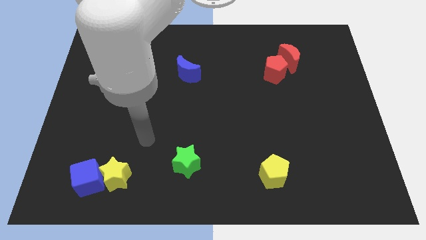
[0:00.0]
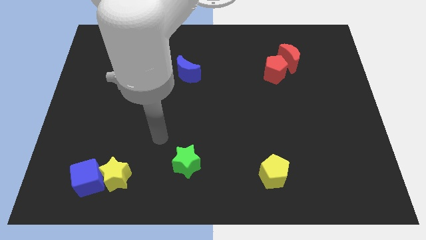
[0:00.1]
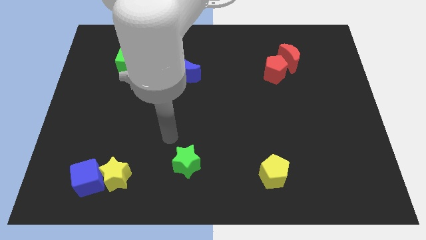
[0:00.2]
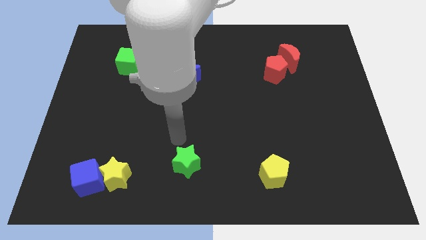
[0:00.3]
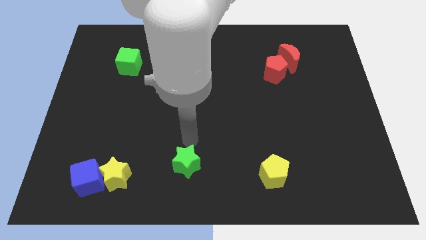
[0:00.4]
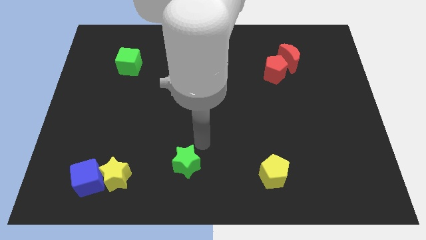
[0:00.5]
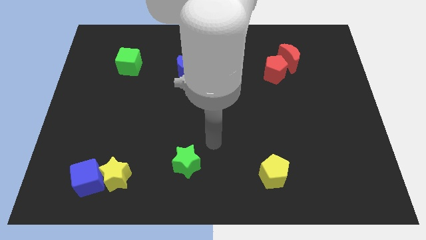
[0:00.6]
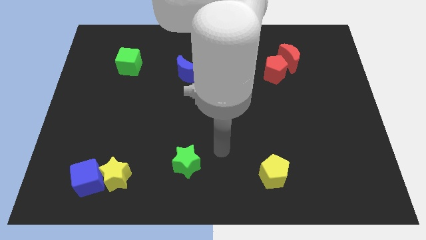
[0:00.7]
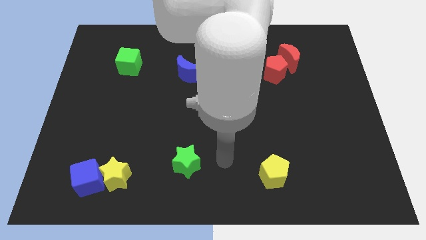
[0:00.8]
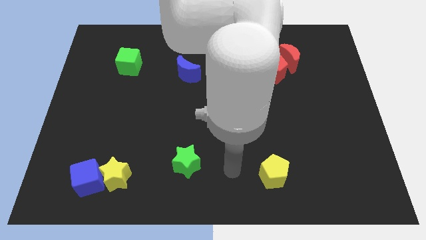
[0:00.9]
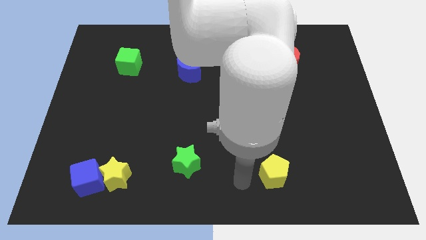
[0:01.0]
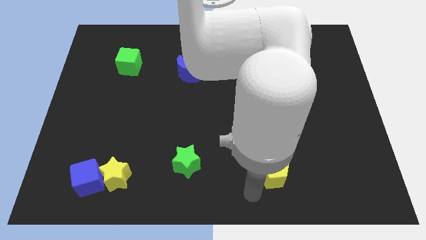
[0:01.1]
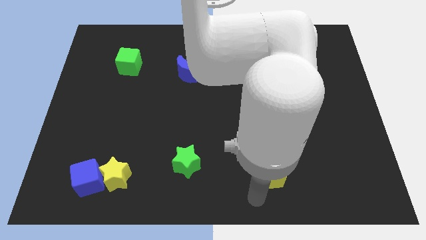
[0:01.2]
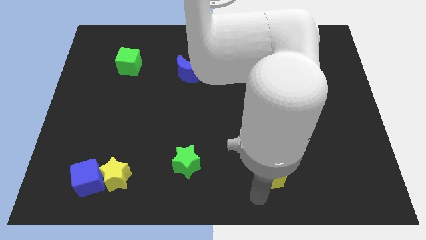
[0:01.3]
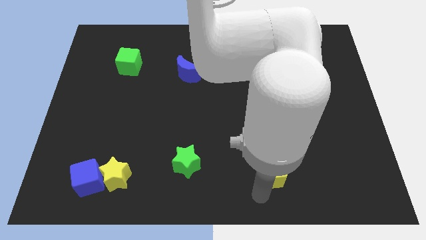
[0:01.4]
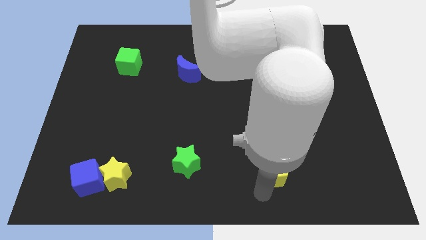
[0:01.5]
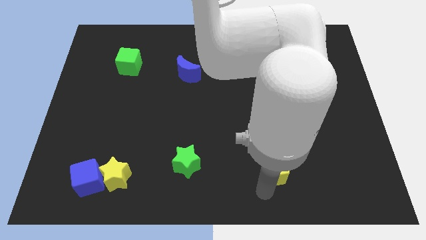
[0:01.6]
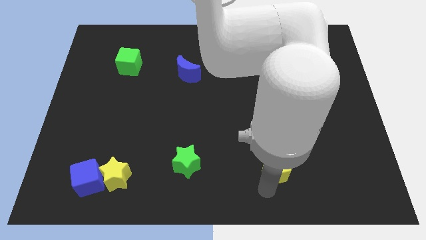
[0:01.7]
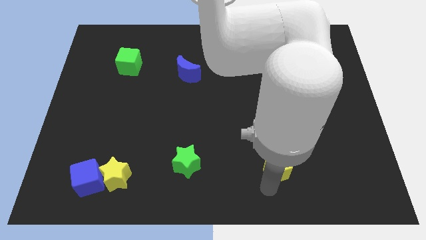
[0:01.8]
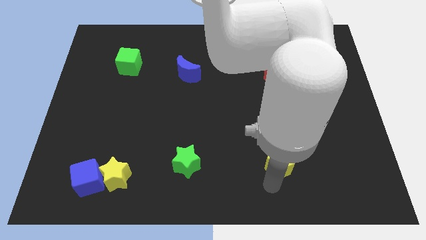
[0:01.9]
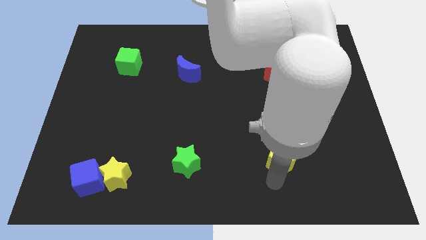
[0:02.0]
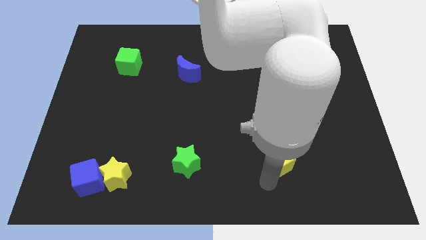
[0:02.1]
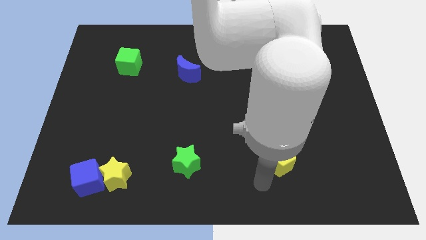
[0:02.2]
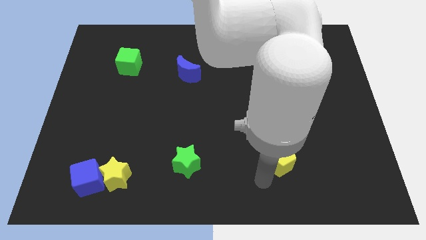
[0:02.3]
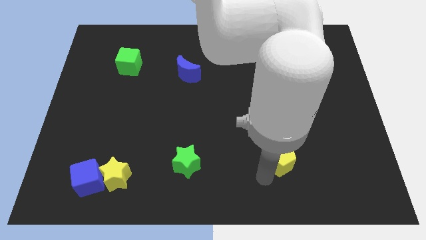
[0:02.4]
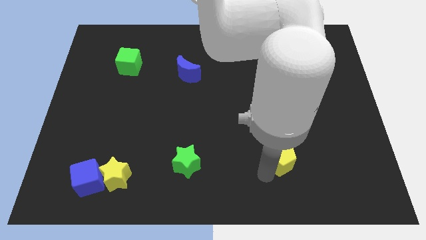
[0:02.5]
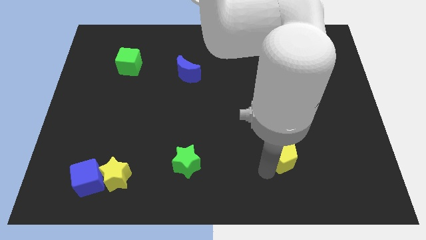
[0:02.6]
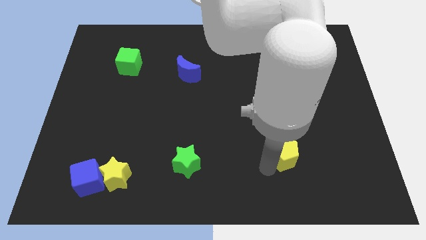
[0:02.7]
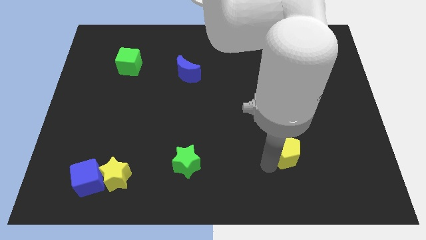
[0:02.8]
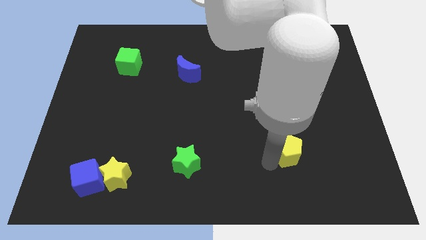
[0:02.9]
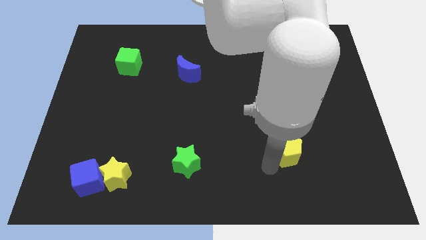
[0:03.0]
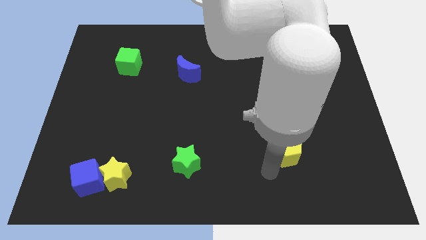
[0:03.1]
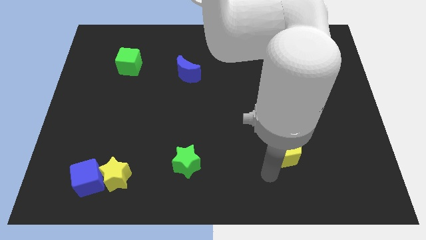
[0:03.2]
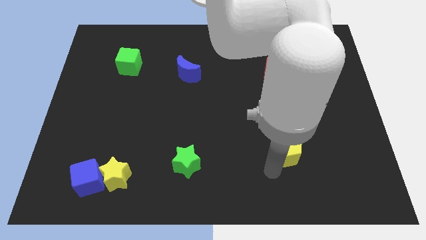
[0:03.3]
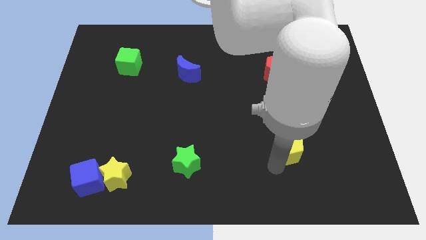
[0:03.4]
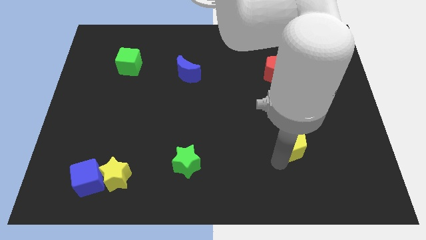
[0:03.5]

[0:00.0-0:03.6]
slide the yellow pentagon upwards and right slightly

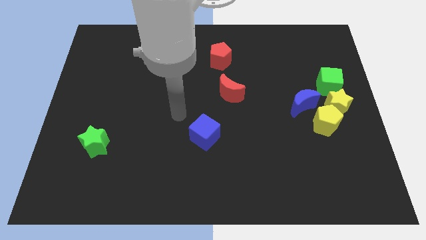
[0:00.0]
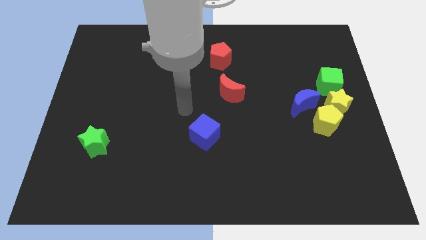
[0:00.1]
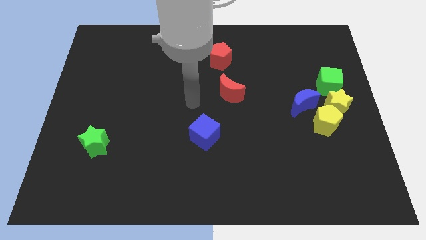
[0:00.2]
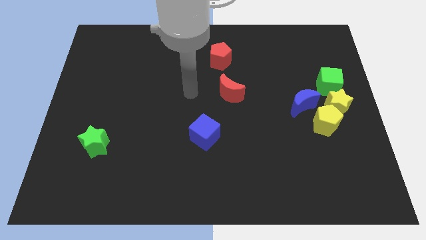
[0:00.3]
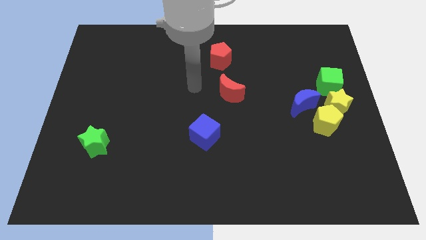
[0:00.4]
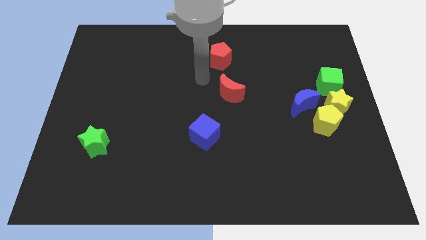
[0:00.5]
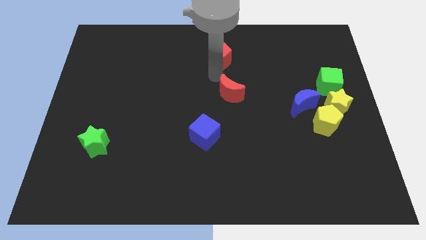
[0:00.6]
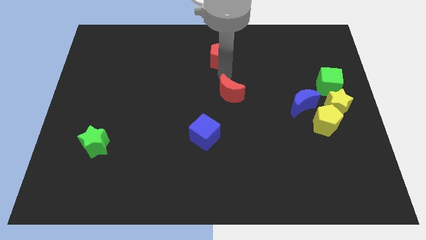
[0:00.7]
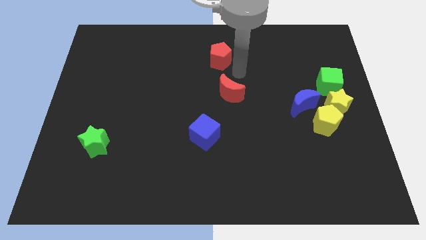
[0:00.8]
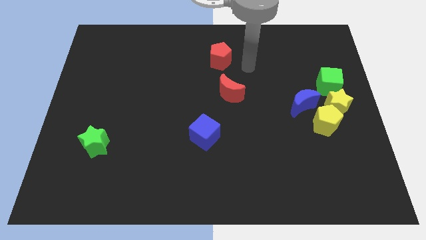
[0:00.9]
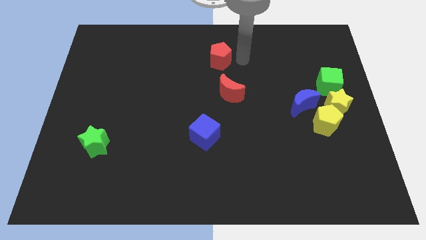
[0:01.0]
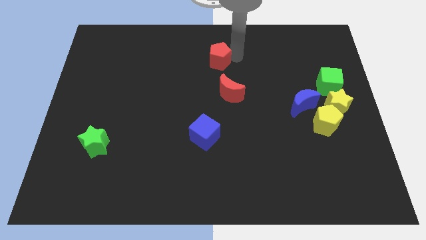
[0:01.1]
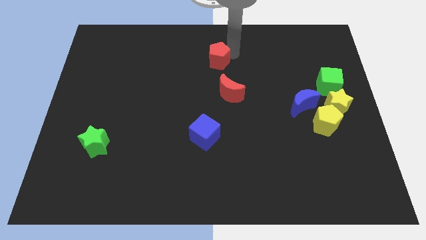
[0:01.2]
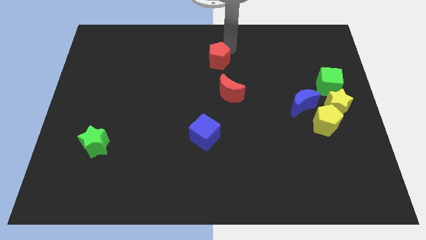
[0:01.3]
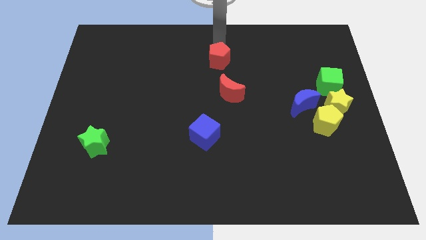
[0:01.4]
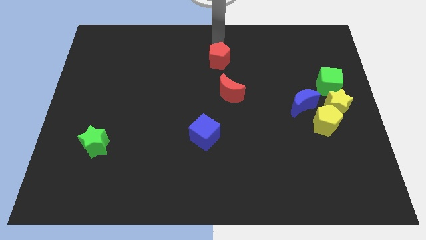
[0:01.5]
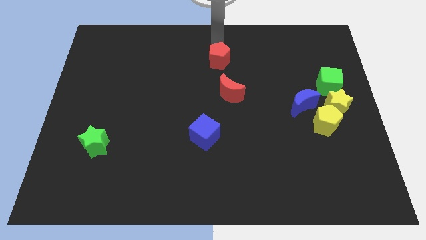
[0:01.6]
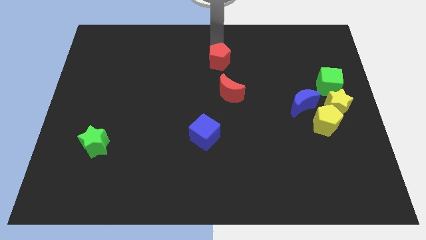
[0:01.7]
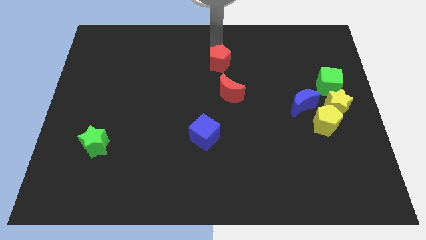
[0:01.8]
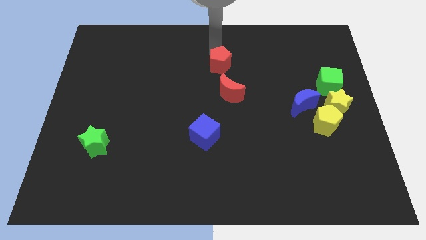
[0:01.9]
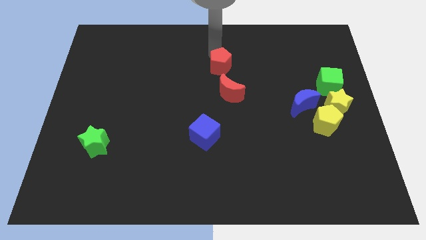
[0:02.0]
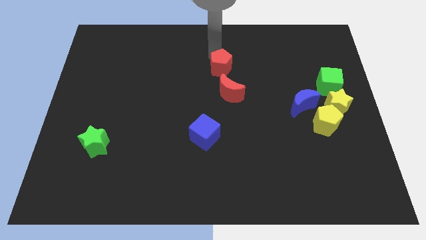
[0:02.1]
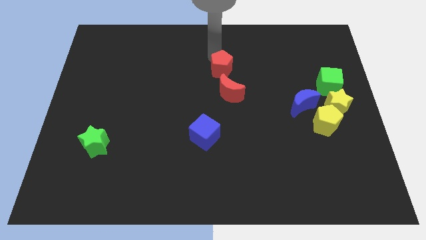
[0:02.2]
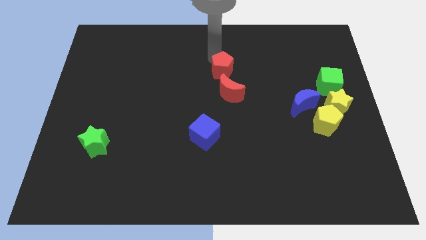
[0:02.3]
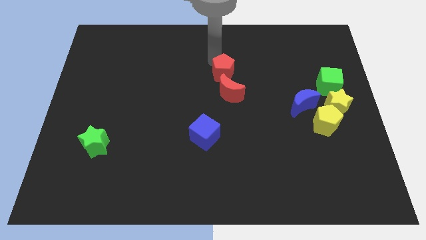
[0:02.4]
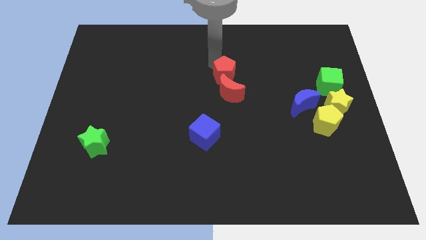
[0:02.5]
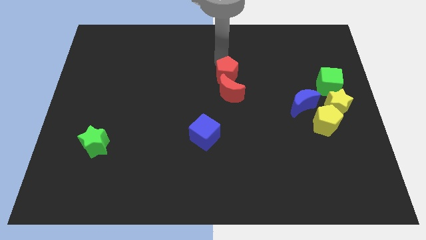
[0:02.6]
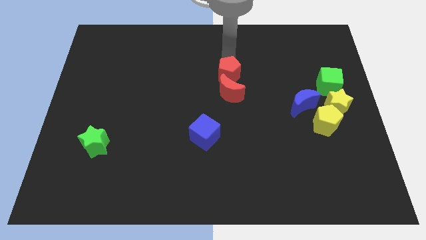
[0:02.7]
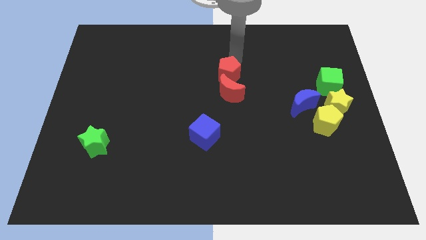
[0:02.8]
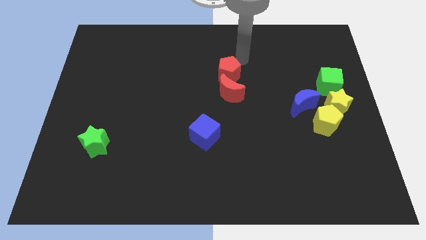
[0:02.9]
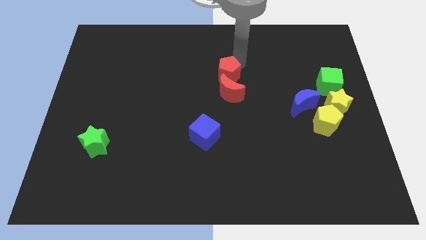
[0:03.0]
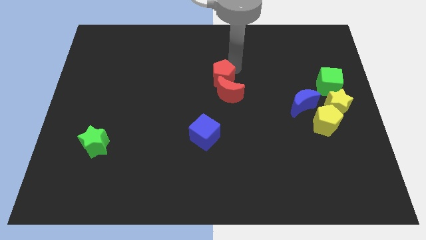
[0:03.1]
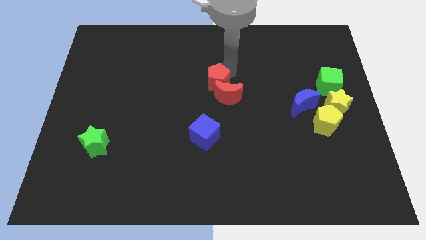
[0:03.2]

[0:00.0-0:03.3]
push the red pentagon a bit downwards

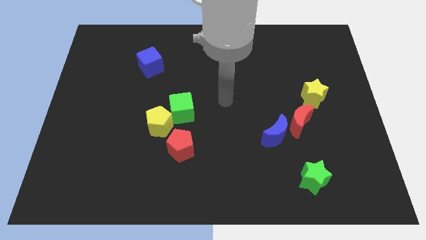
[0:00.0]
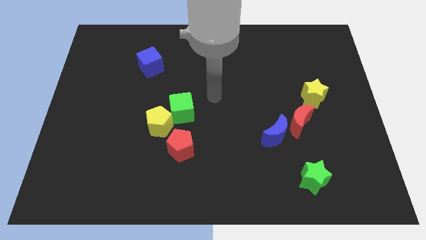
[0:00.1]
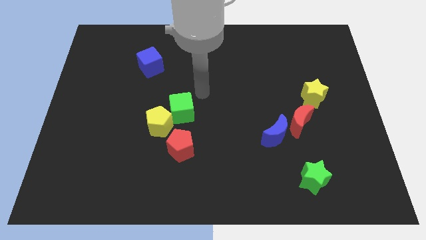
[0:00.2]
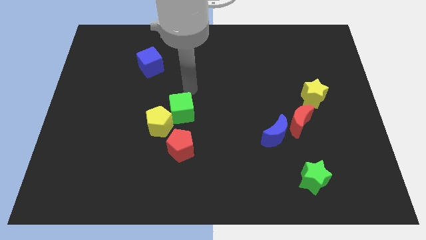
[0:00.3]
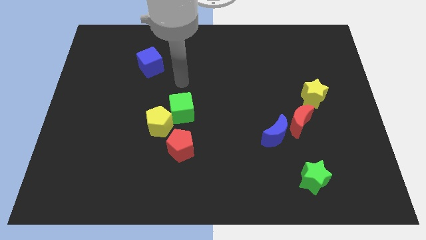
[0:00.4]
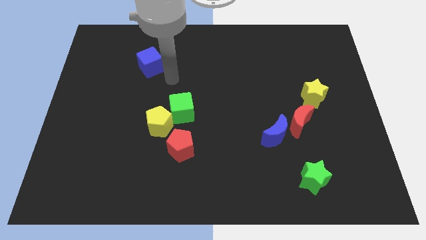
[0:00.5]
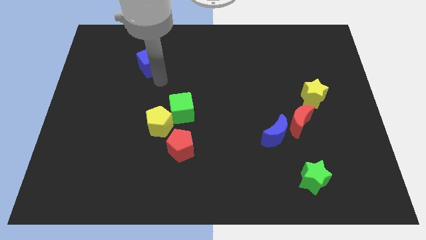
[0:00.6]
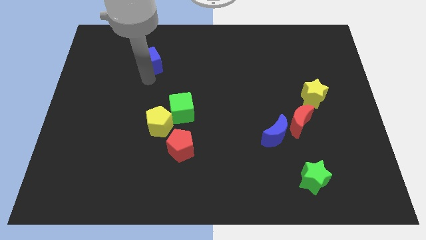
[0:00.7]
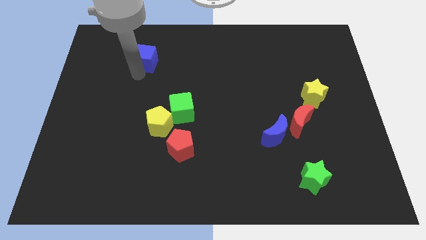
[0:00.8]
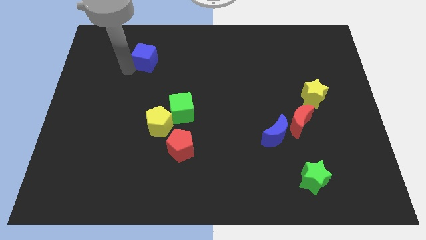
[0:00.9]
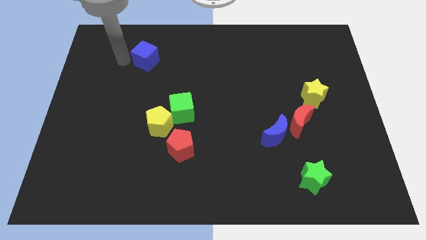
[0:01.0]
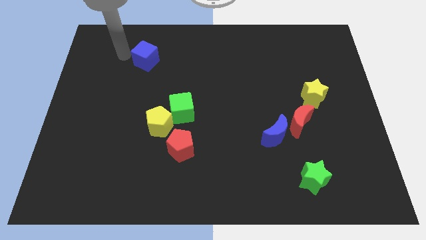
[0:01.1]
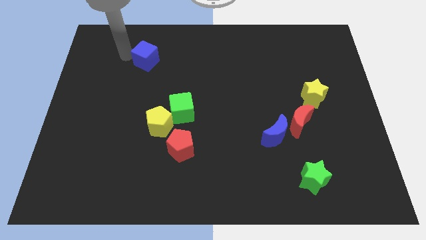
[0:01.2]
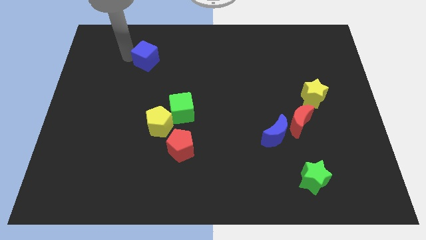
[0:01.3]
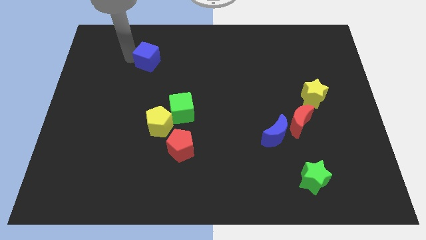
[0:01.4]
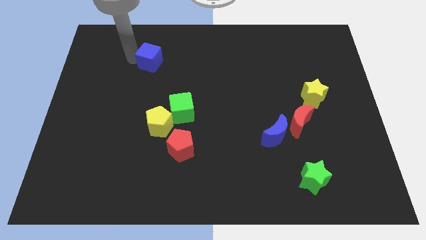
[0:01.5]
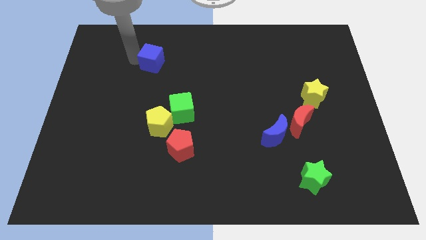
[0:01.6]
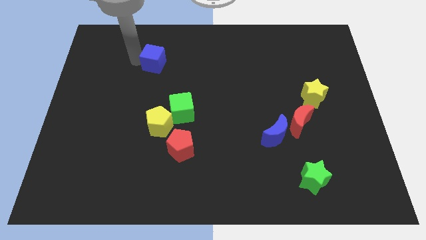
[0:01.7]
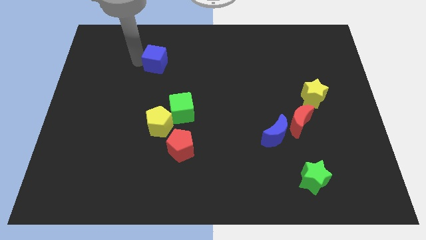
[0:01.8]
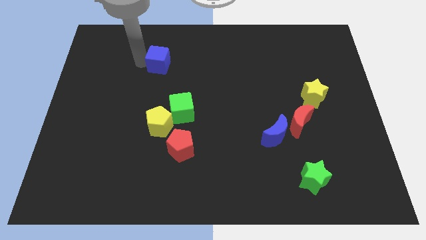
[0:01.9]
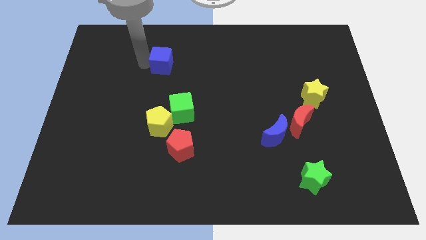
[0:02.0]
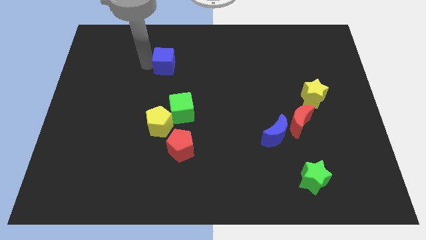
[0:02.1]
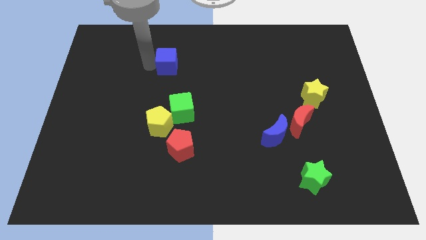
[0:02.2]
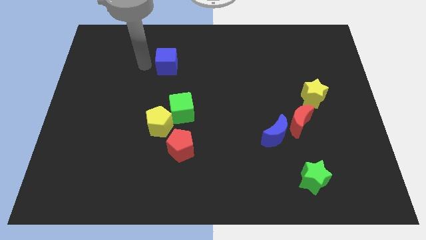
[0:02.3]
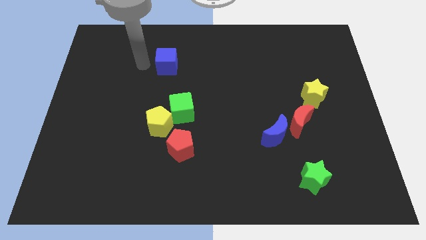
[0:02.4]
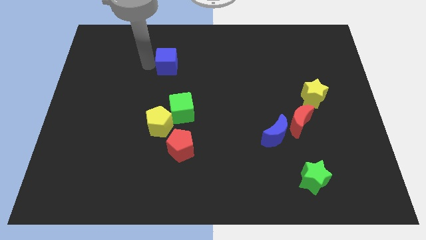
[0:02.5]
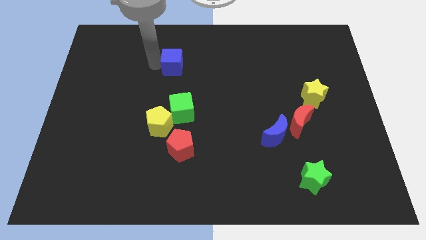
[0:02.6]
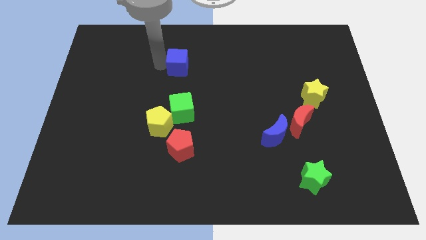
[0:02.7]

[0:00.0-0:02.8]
slightly move the blue cube to the right
